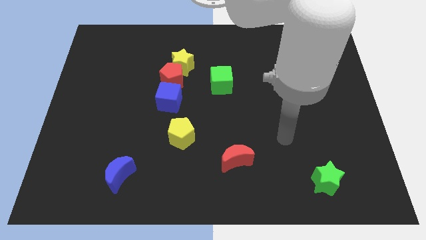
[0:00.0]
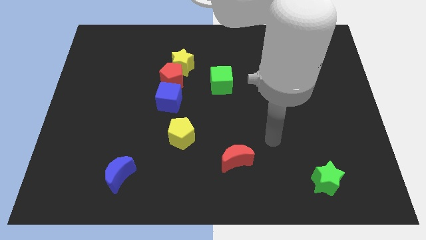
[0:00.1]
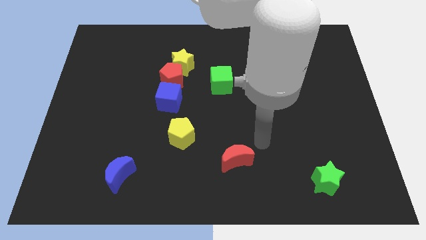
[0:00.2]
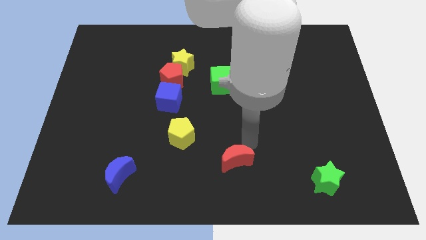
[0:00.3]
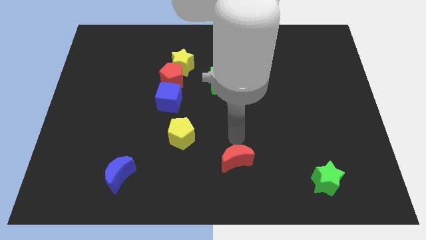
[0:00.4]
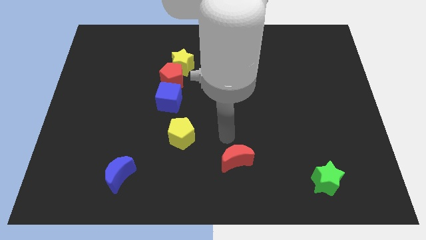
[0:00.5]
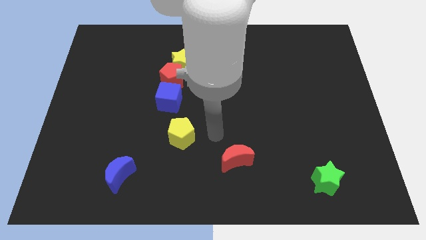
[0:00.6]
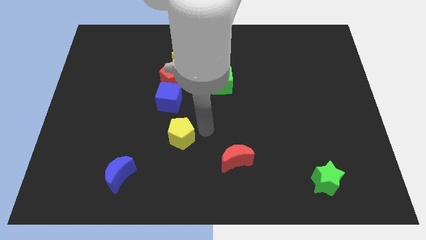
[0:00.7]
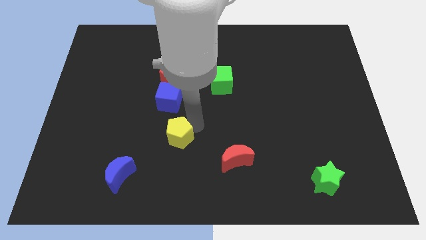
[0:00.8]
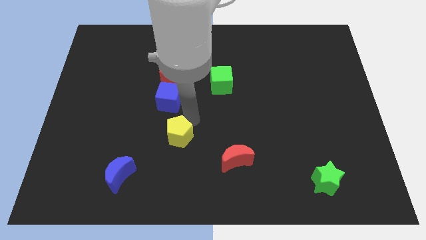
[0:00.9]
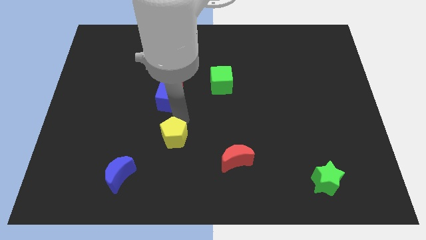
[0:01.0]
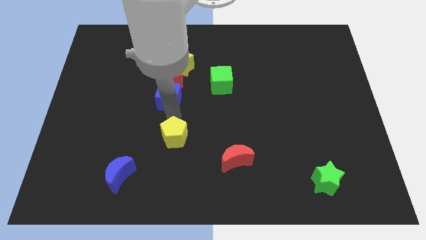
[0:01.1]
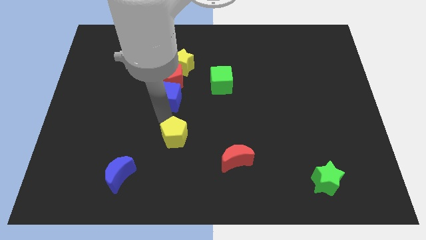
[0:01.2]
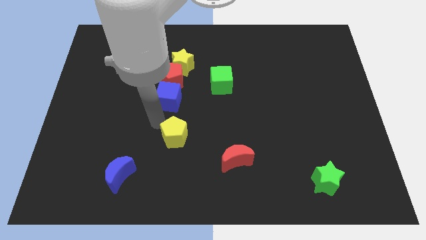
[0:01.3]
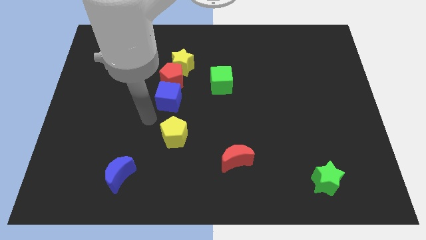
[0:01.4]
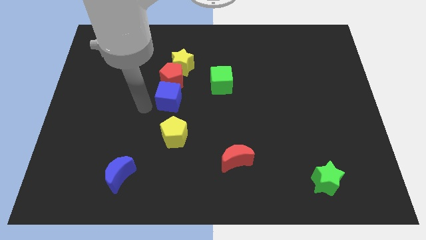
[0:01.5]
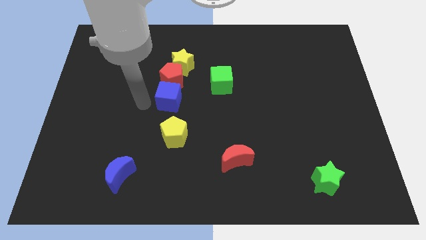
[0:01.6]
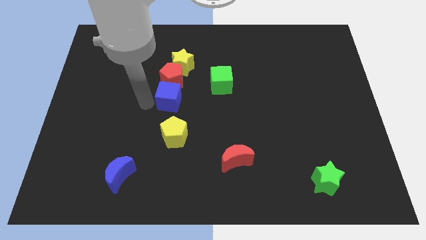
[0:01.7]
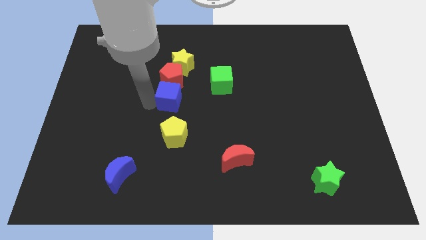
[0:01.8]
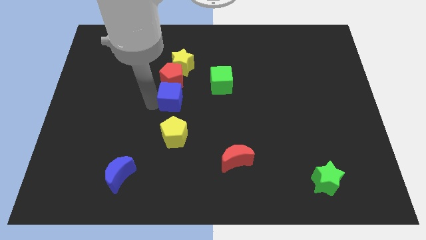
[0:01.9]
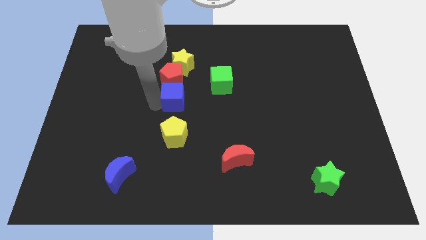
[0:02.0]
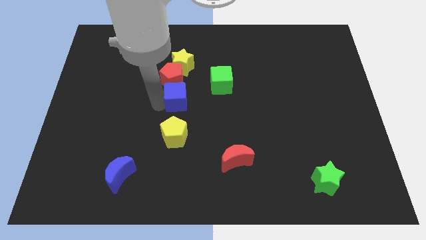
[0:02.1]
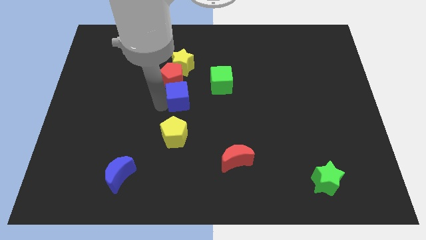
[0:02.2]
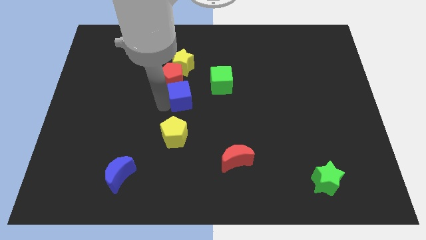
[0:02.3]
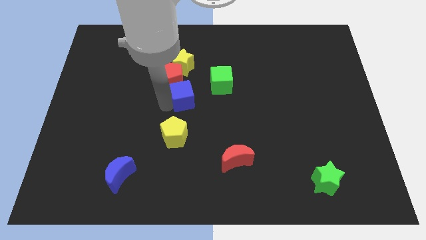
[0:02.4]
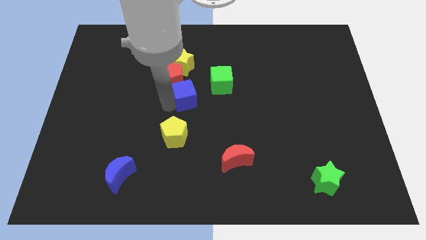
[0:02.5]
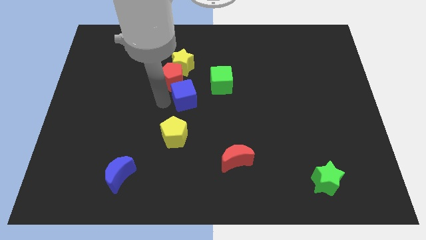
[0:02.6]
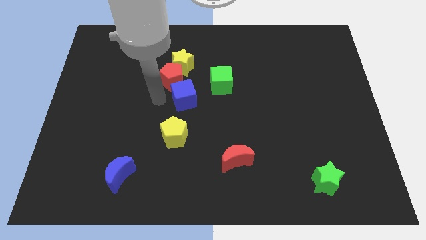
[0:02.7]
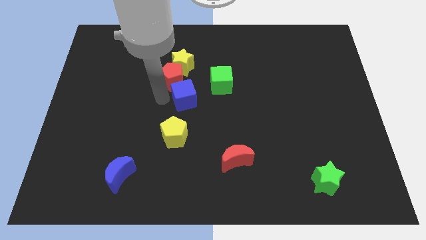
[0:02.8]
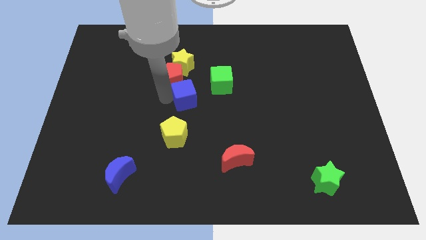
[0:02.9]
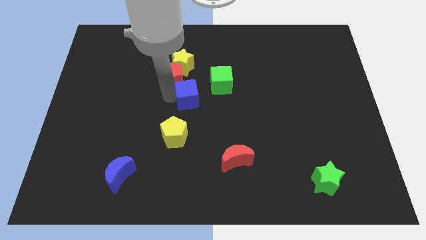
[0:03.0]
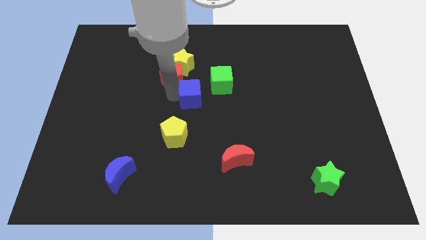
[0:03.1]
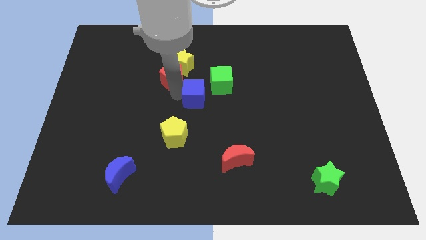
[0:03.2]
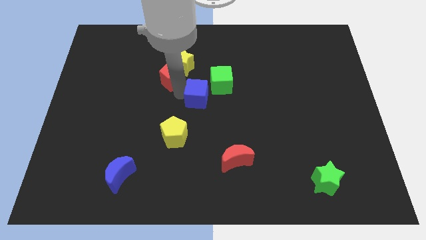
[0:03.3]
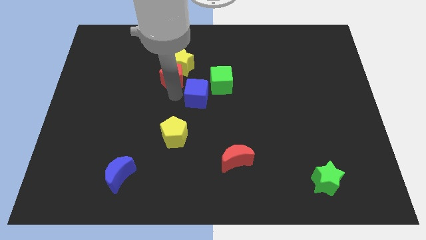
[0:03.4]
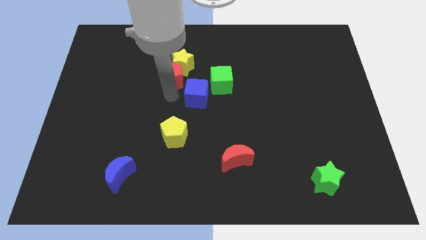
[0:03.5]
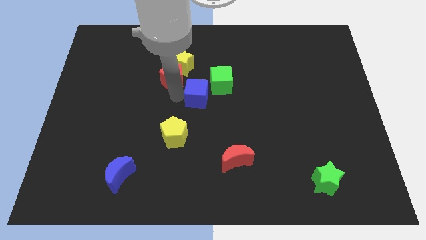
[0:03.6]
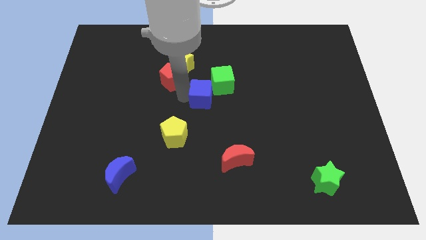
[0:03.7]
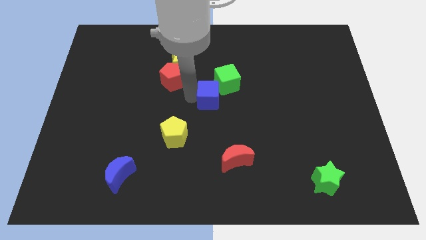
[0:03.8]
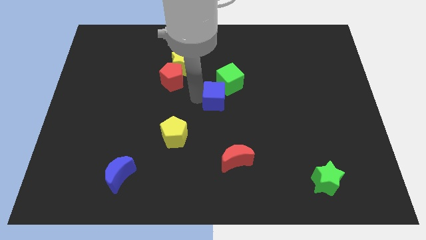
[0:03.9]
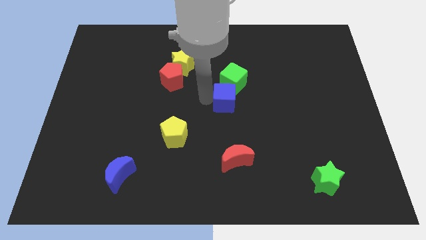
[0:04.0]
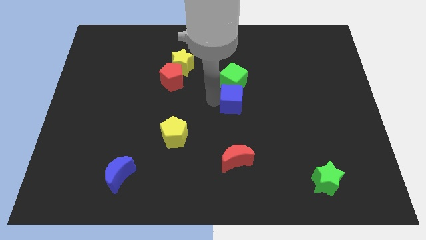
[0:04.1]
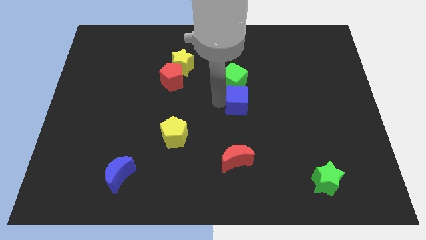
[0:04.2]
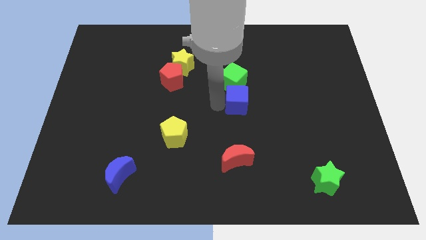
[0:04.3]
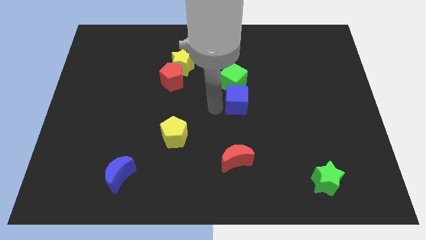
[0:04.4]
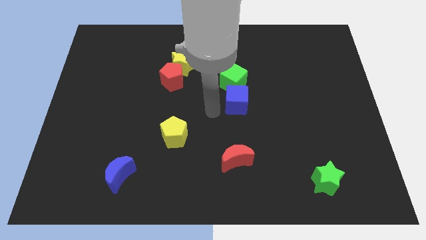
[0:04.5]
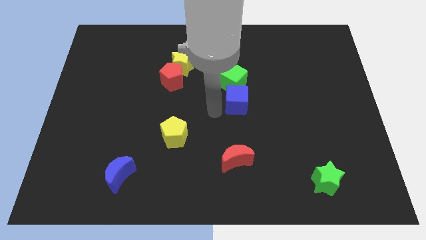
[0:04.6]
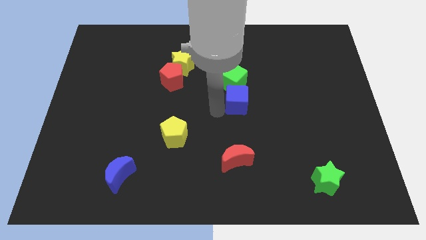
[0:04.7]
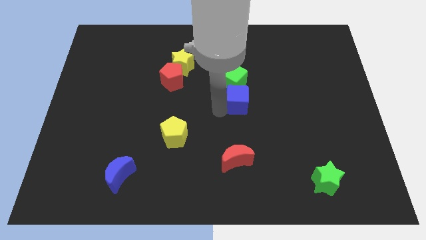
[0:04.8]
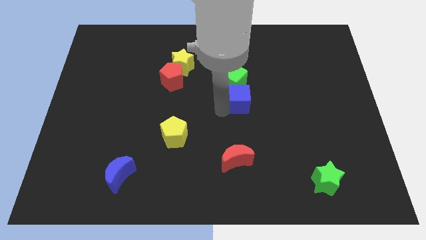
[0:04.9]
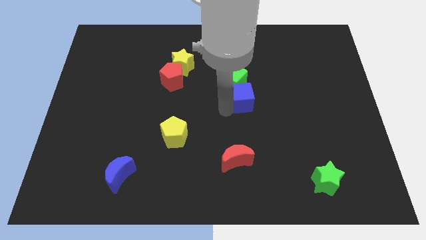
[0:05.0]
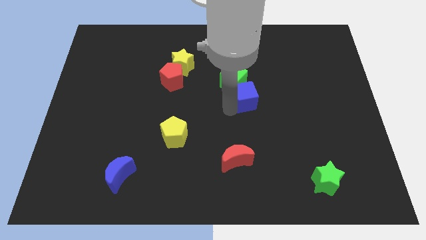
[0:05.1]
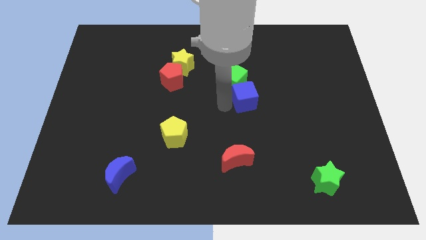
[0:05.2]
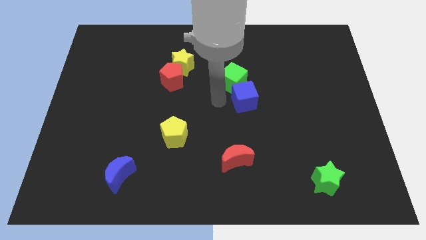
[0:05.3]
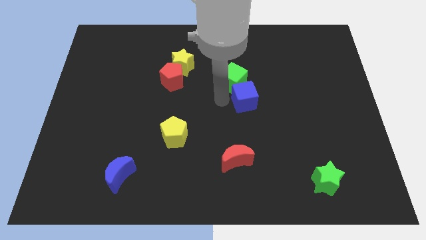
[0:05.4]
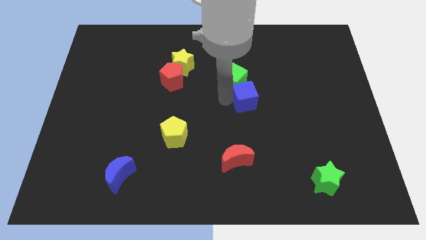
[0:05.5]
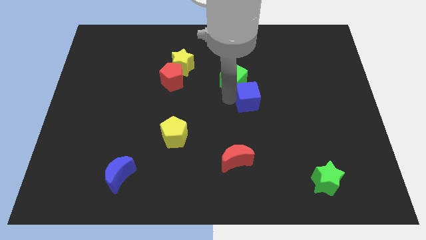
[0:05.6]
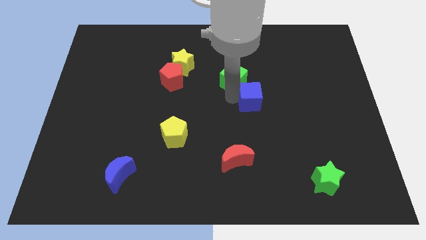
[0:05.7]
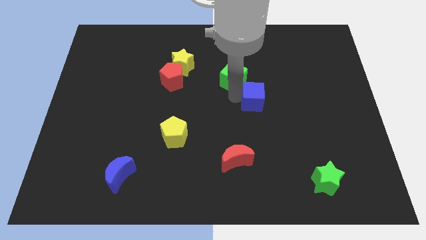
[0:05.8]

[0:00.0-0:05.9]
push the blue cube right

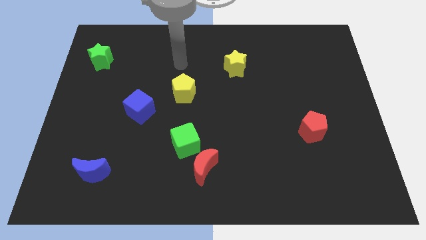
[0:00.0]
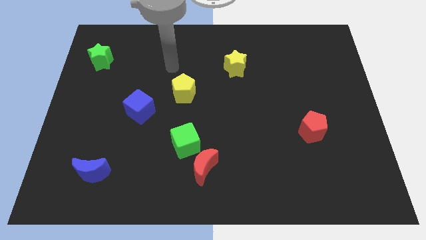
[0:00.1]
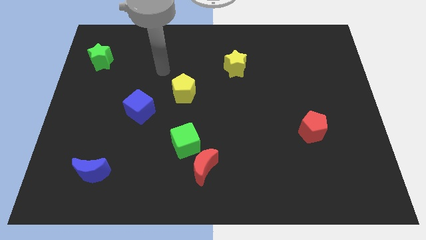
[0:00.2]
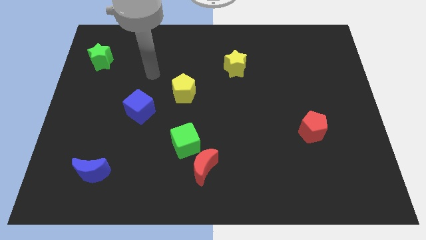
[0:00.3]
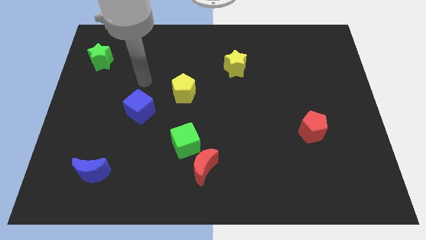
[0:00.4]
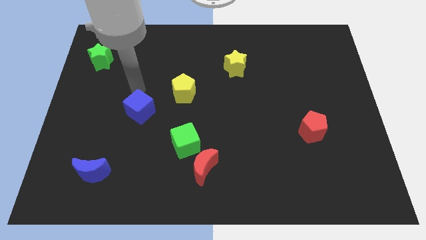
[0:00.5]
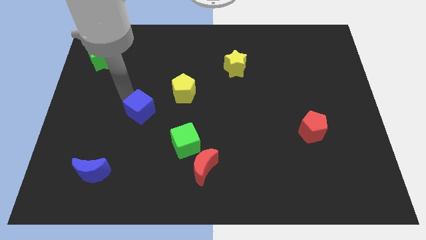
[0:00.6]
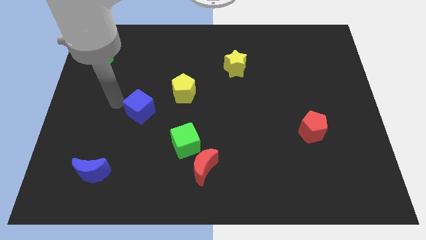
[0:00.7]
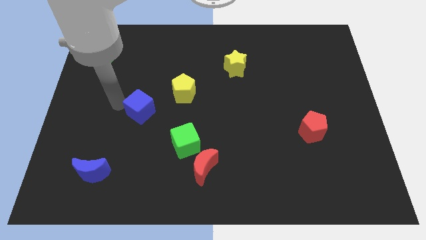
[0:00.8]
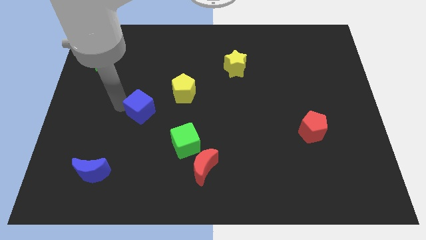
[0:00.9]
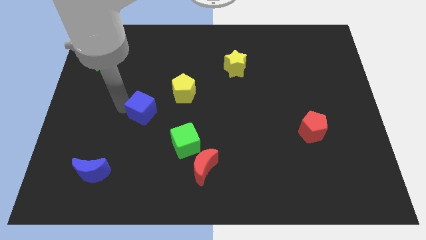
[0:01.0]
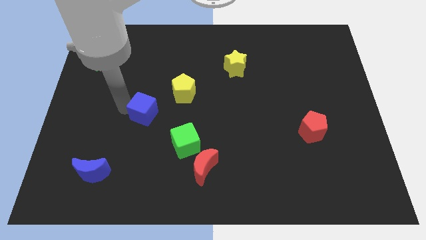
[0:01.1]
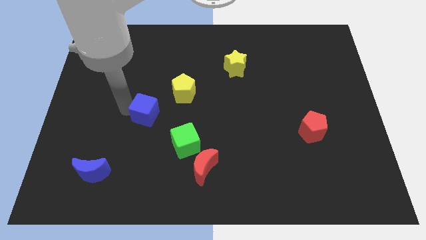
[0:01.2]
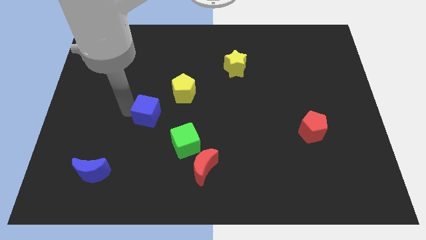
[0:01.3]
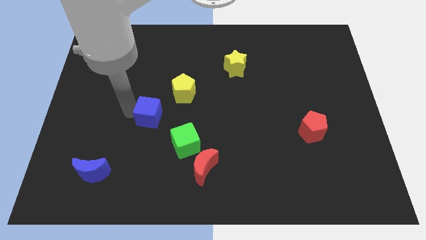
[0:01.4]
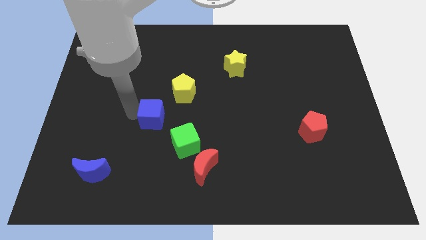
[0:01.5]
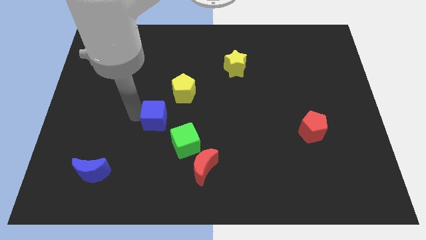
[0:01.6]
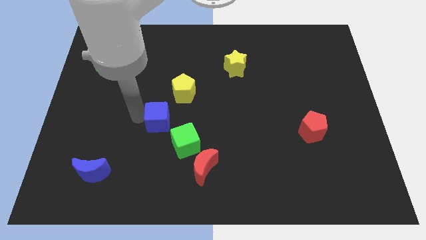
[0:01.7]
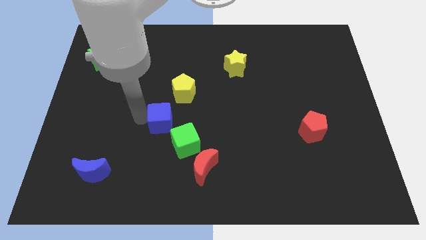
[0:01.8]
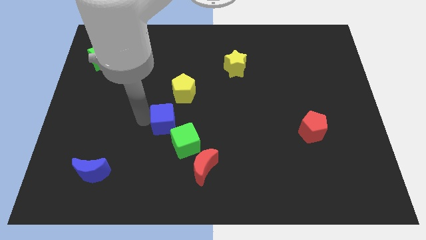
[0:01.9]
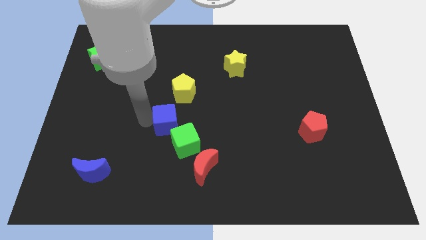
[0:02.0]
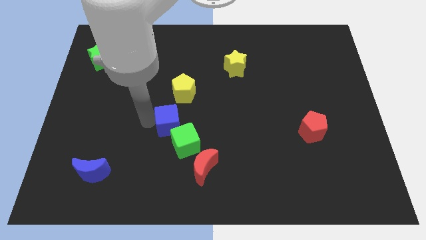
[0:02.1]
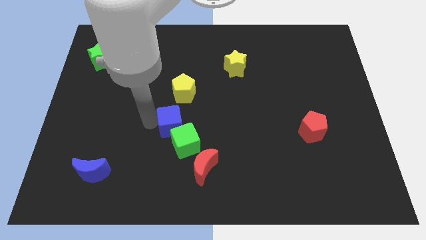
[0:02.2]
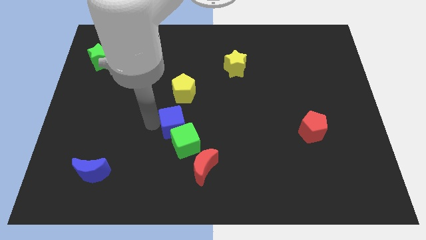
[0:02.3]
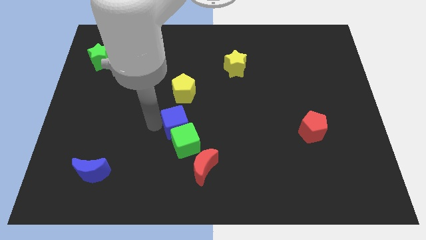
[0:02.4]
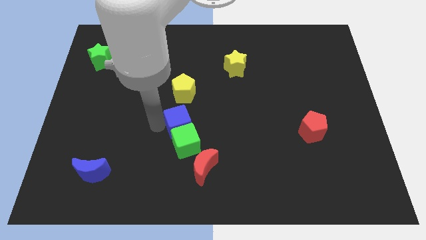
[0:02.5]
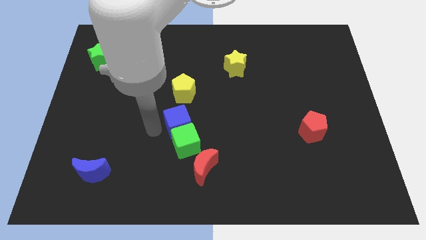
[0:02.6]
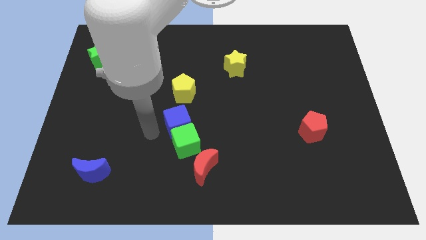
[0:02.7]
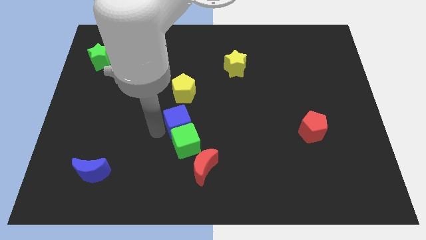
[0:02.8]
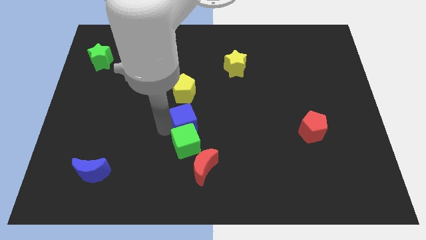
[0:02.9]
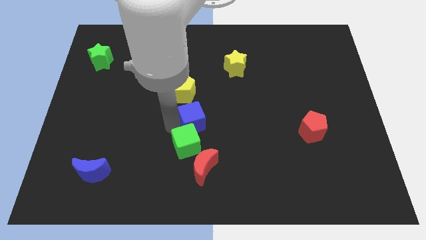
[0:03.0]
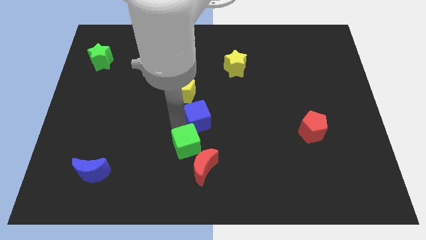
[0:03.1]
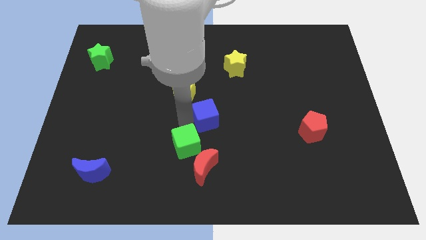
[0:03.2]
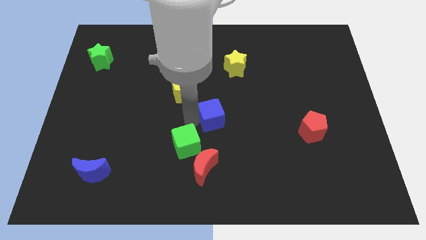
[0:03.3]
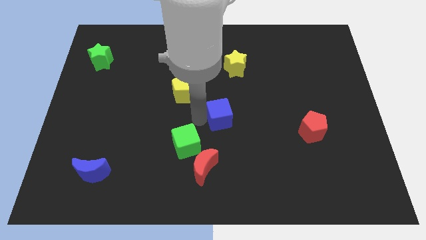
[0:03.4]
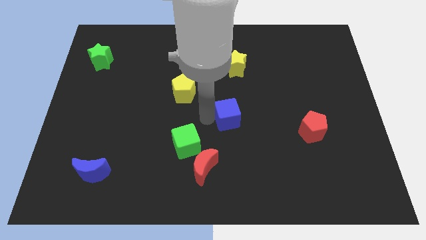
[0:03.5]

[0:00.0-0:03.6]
move the blue cube to the right
